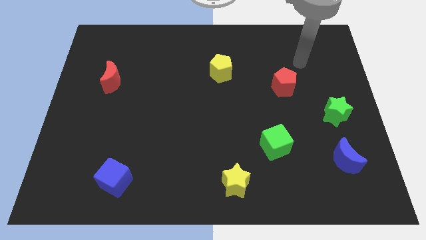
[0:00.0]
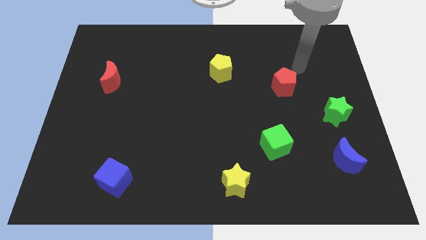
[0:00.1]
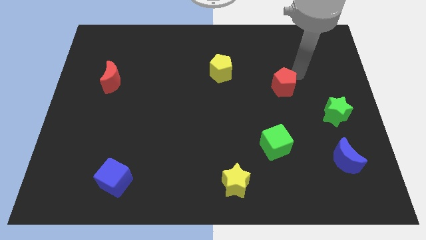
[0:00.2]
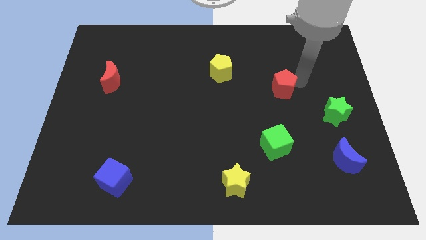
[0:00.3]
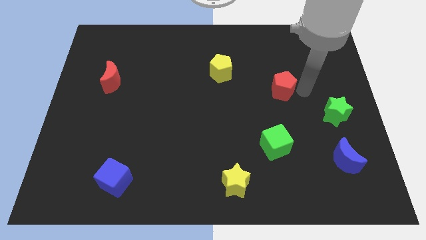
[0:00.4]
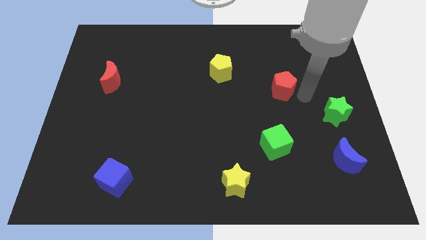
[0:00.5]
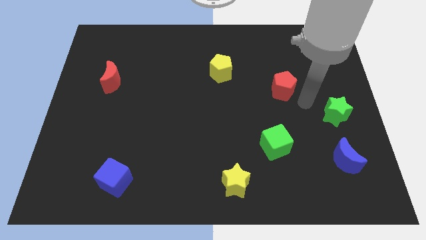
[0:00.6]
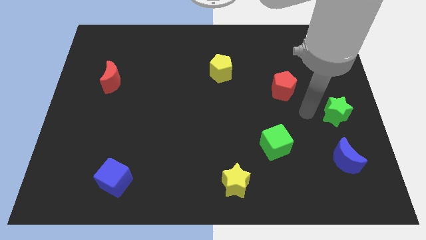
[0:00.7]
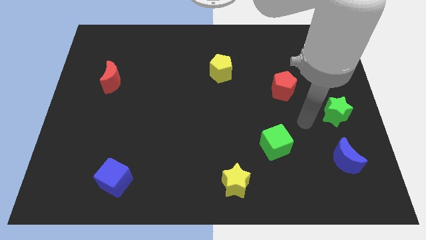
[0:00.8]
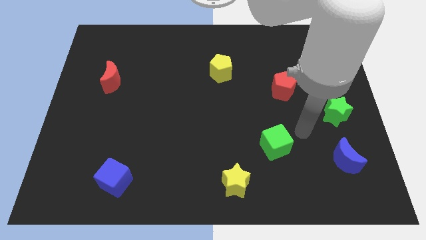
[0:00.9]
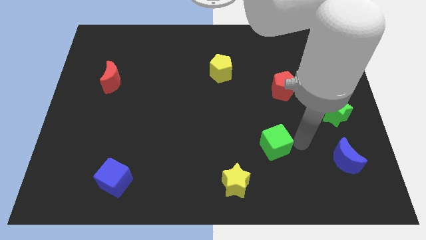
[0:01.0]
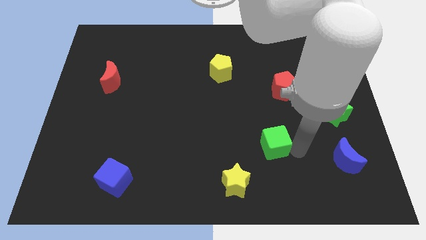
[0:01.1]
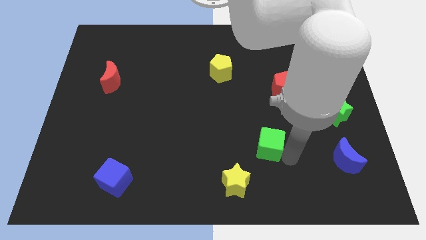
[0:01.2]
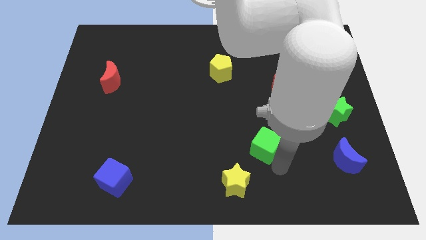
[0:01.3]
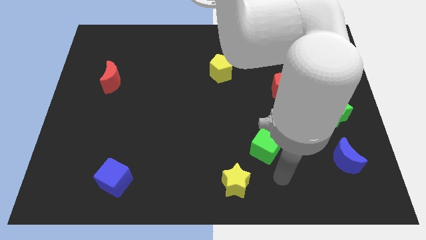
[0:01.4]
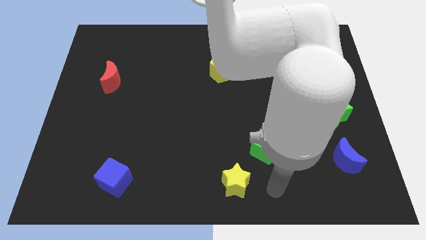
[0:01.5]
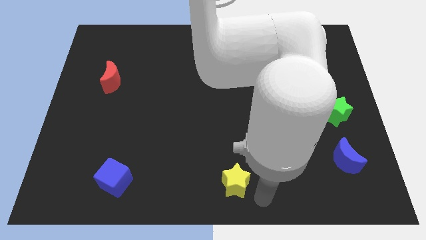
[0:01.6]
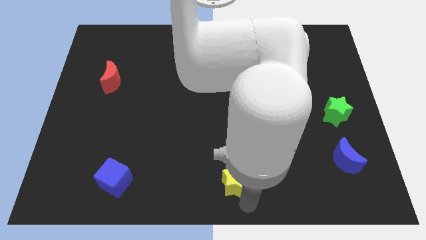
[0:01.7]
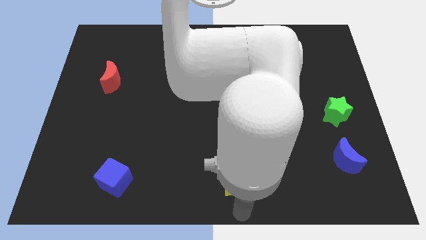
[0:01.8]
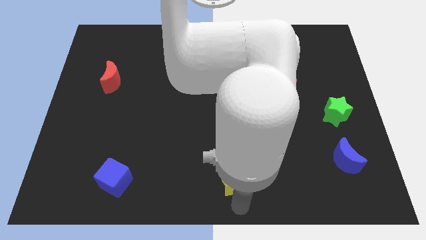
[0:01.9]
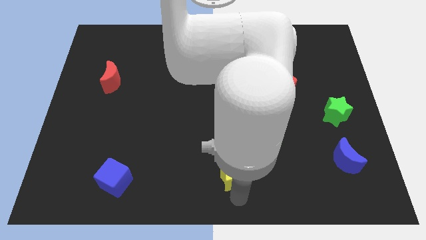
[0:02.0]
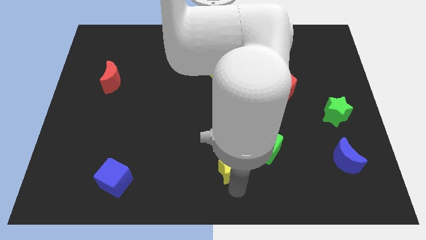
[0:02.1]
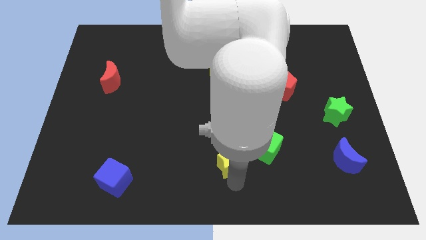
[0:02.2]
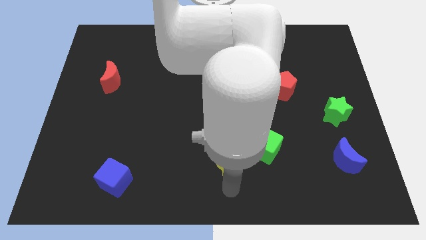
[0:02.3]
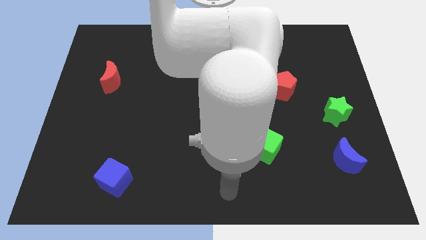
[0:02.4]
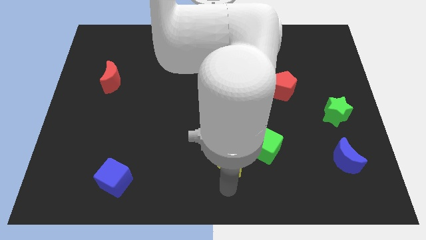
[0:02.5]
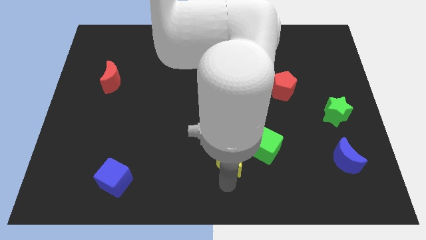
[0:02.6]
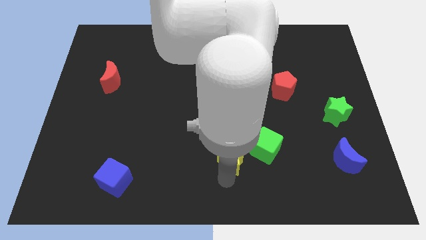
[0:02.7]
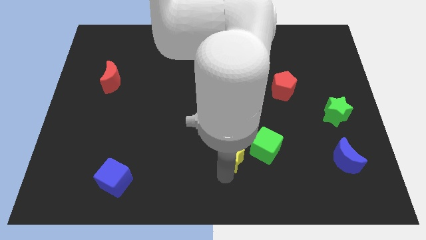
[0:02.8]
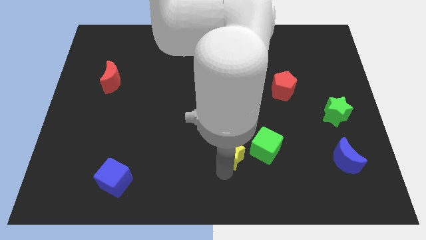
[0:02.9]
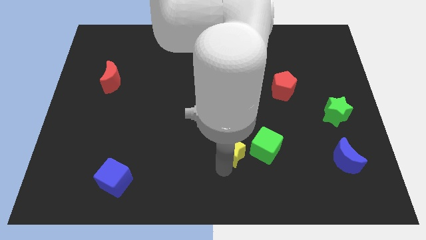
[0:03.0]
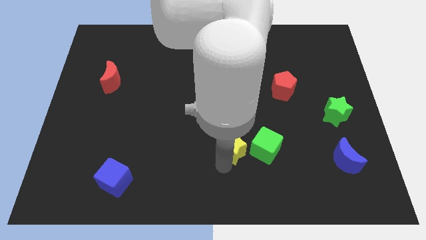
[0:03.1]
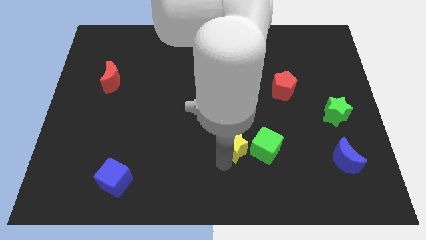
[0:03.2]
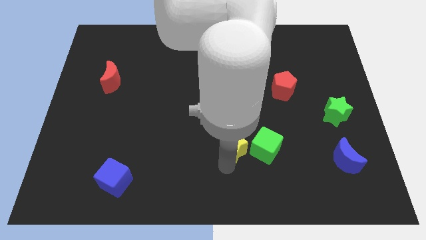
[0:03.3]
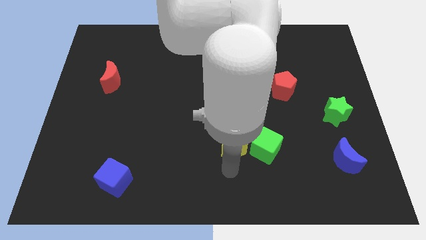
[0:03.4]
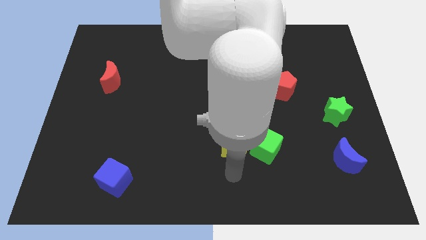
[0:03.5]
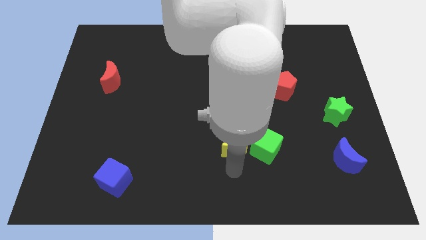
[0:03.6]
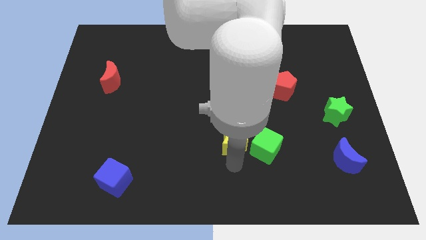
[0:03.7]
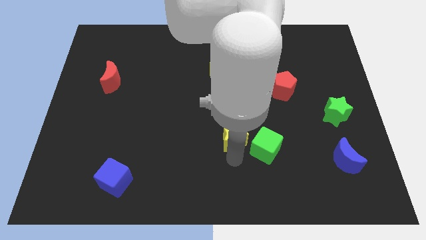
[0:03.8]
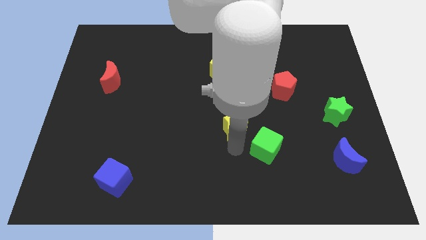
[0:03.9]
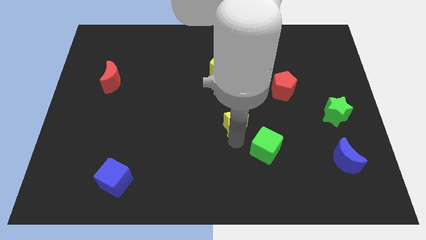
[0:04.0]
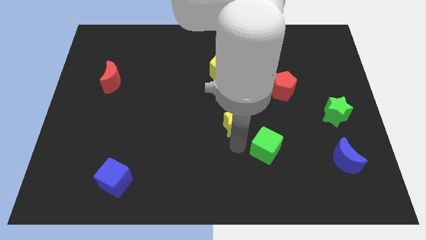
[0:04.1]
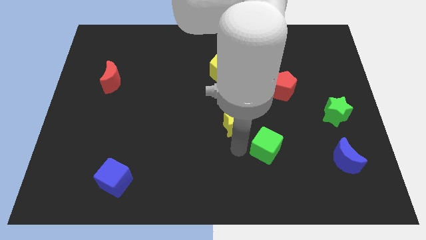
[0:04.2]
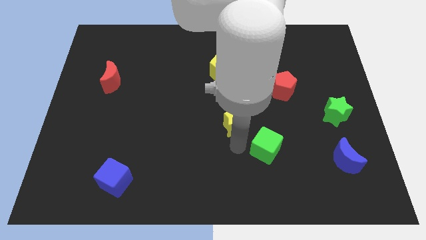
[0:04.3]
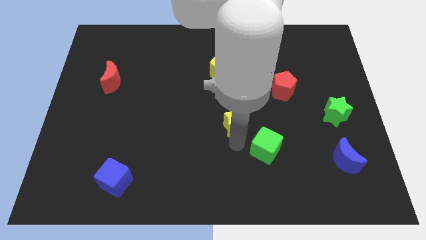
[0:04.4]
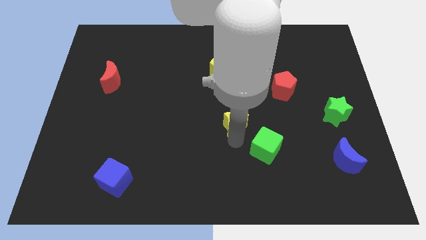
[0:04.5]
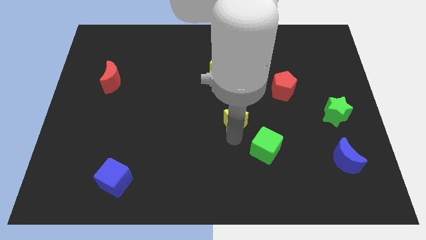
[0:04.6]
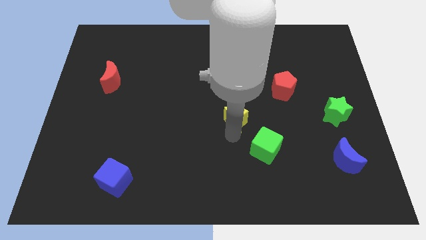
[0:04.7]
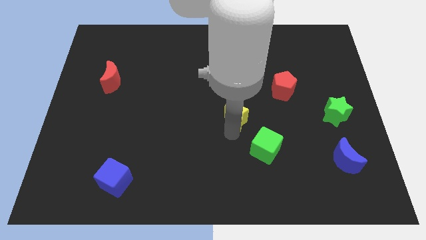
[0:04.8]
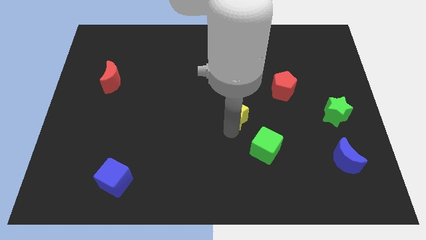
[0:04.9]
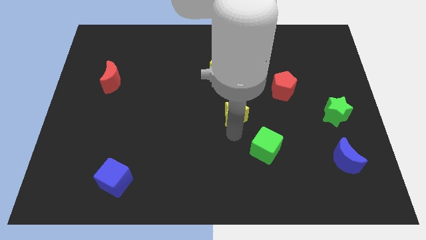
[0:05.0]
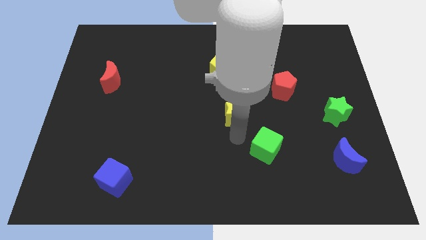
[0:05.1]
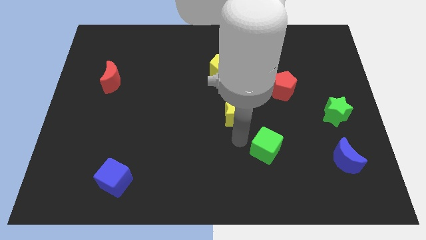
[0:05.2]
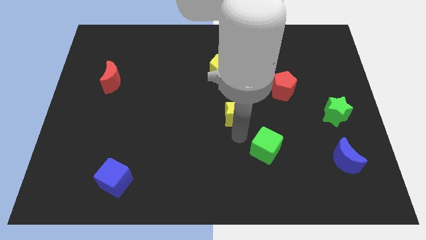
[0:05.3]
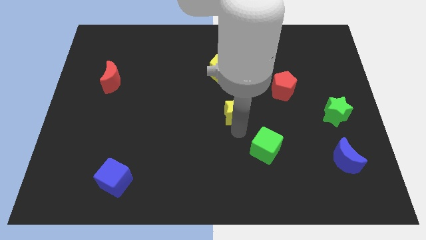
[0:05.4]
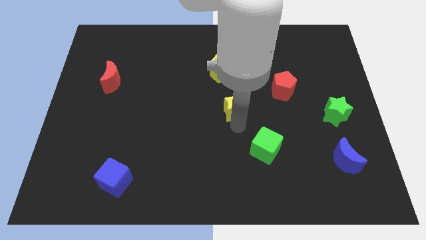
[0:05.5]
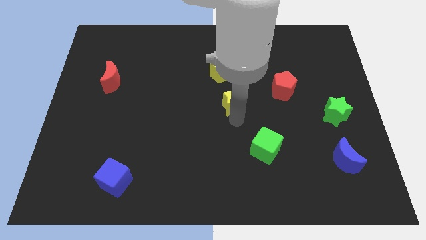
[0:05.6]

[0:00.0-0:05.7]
slide the yellow star to the left of the red pentagon

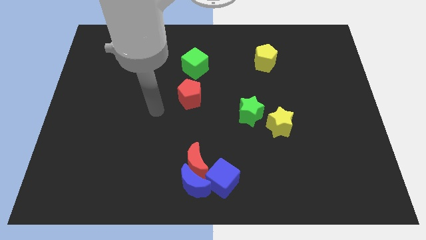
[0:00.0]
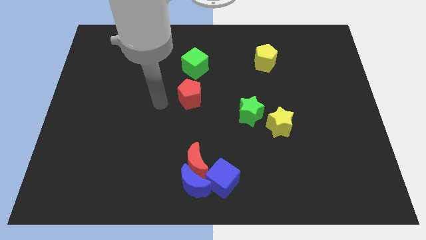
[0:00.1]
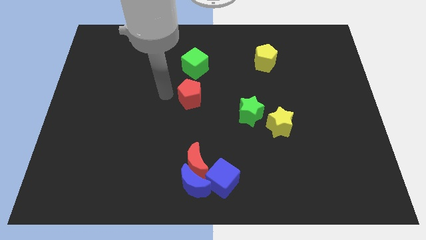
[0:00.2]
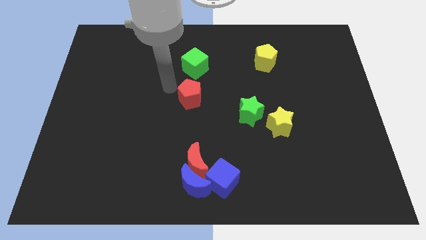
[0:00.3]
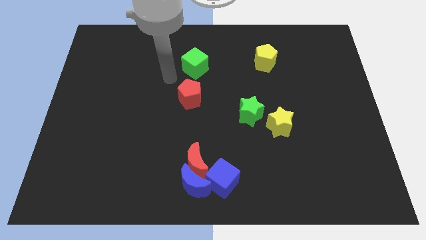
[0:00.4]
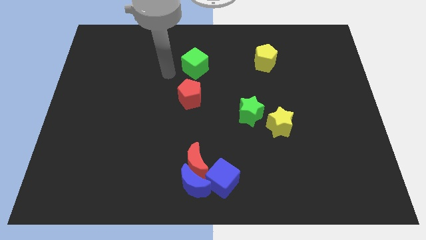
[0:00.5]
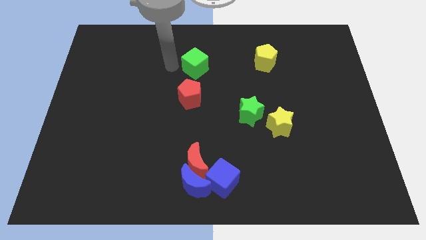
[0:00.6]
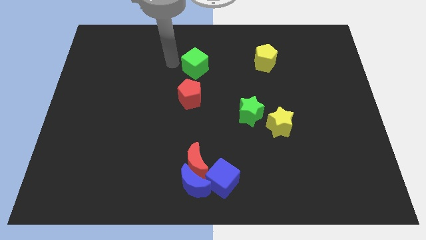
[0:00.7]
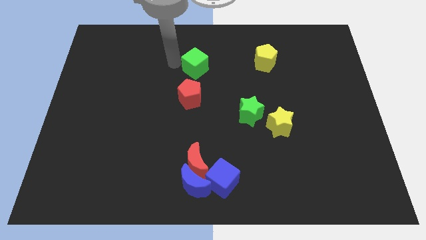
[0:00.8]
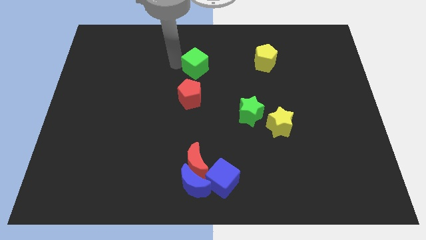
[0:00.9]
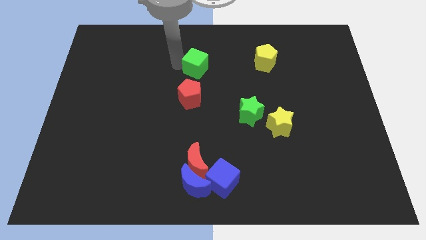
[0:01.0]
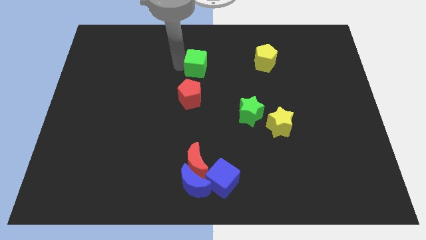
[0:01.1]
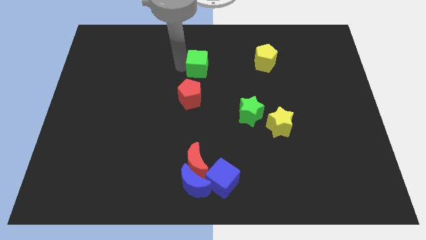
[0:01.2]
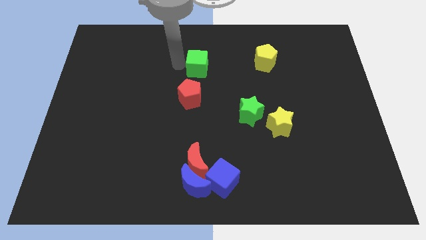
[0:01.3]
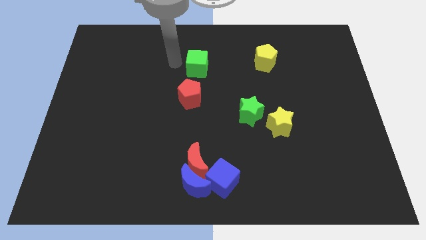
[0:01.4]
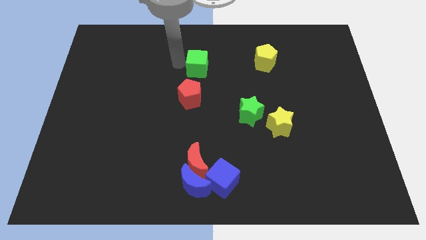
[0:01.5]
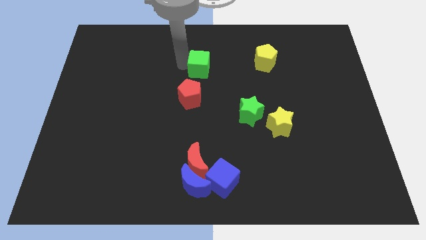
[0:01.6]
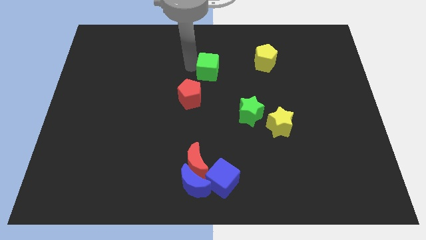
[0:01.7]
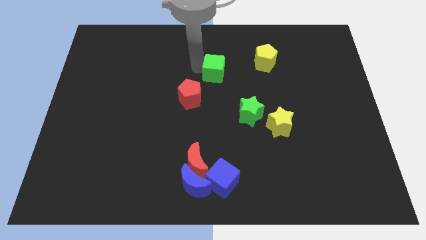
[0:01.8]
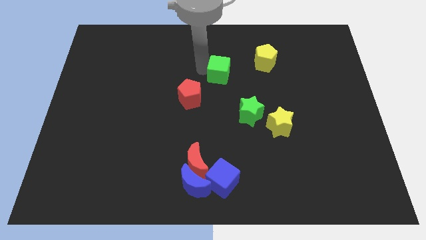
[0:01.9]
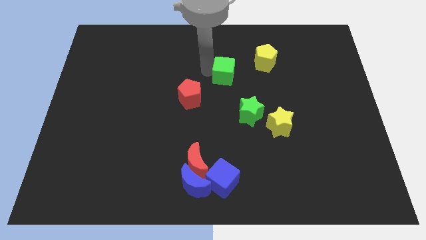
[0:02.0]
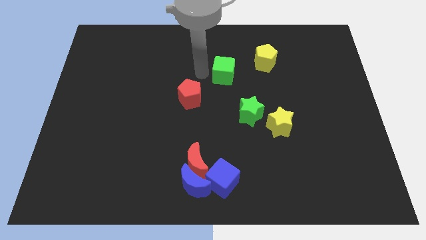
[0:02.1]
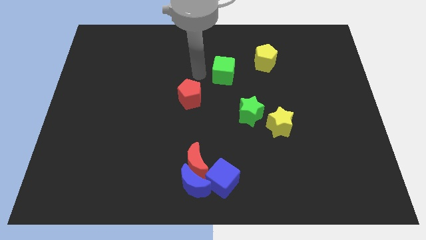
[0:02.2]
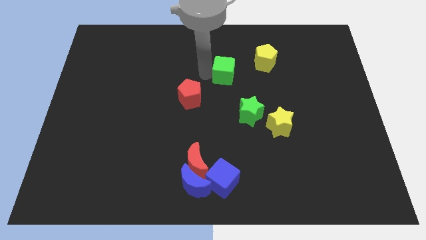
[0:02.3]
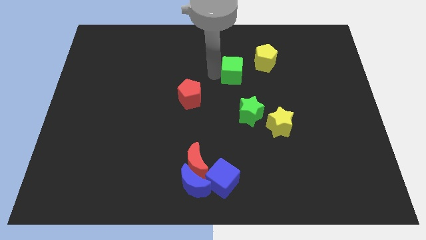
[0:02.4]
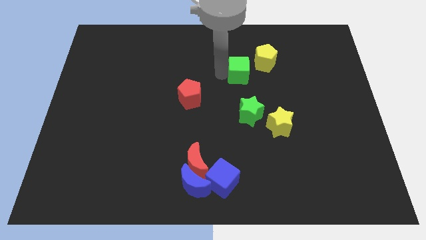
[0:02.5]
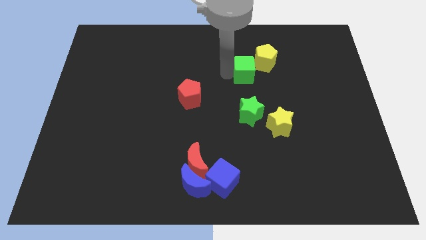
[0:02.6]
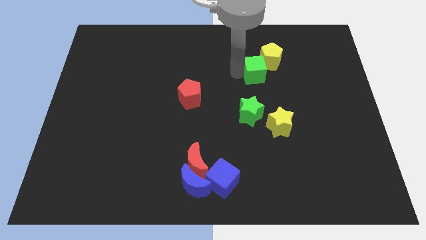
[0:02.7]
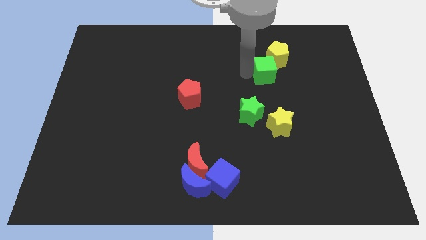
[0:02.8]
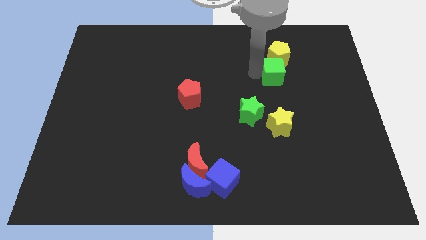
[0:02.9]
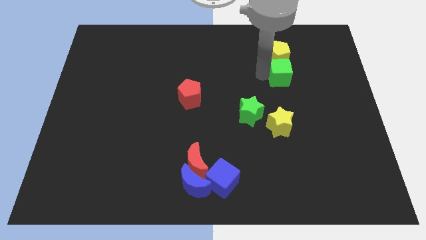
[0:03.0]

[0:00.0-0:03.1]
put the green cube diagonally down and to the right of the yellow pentagon
